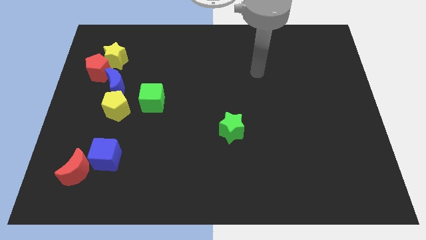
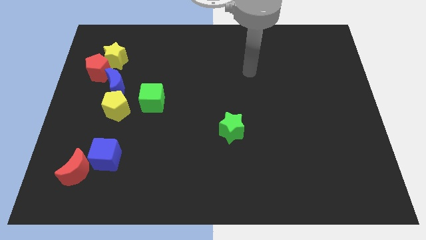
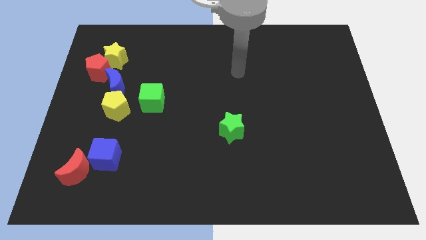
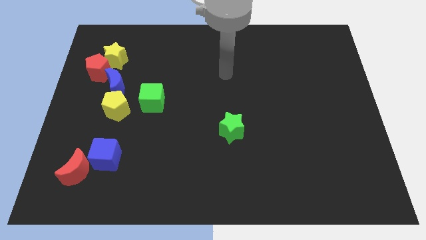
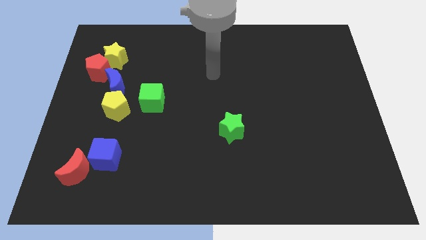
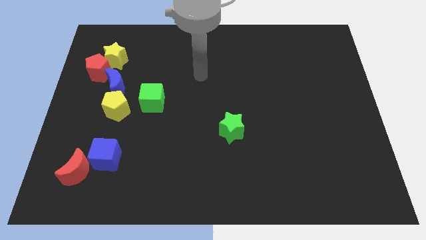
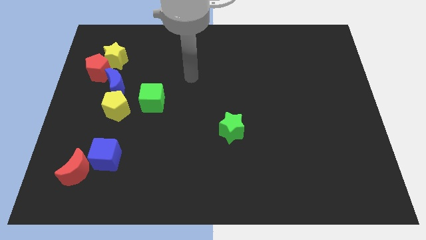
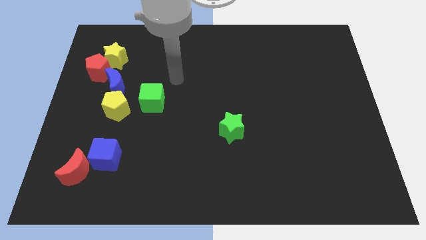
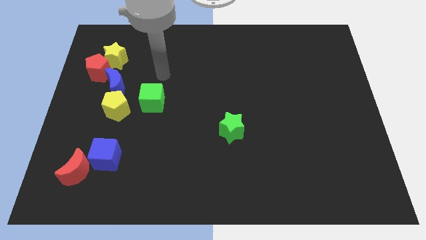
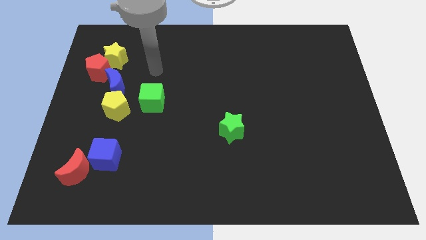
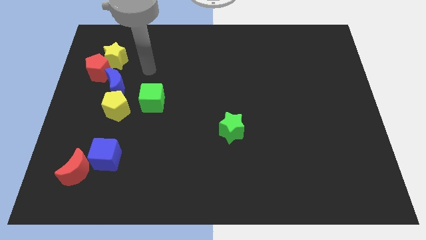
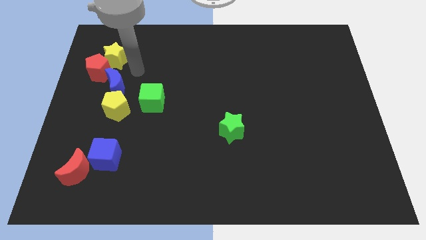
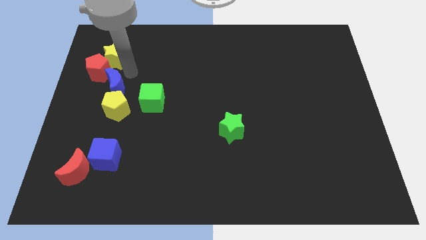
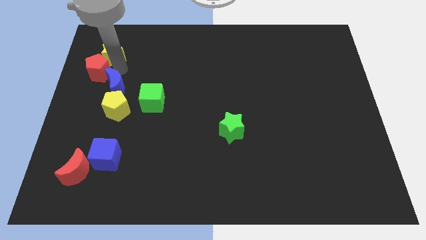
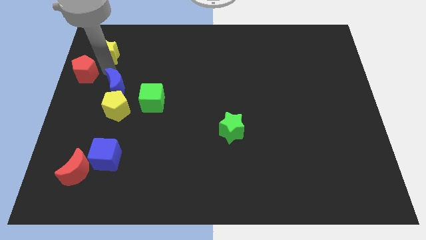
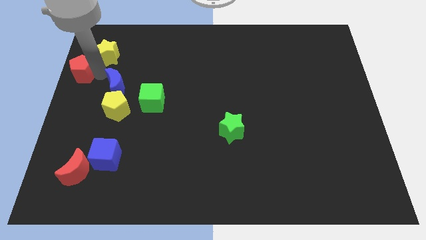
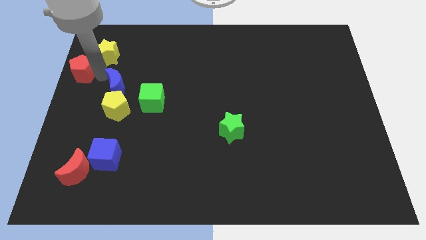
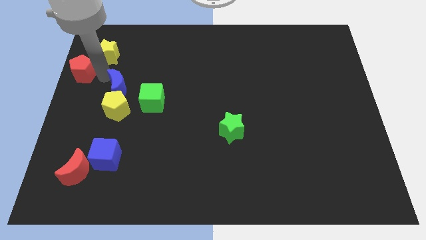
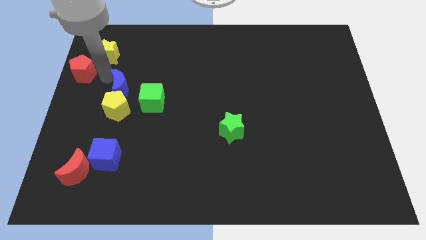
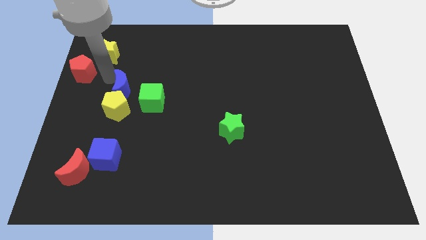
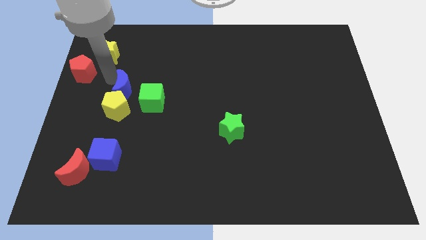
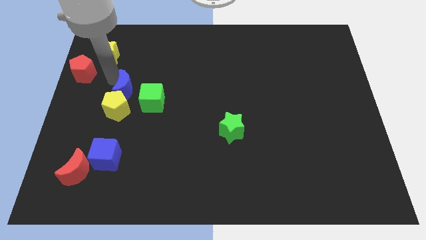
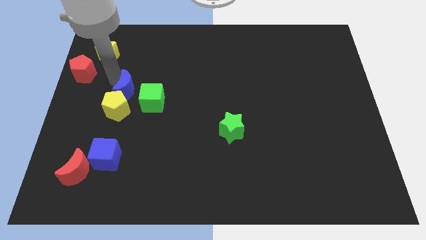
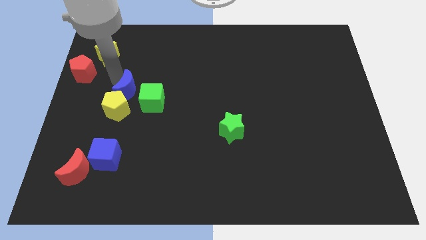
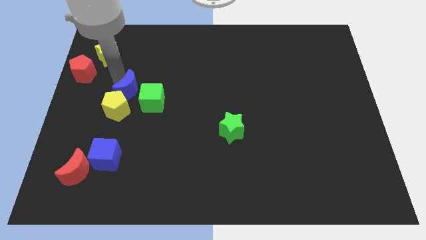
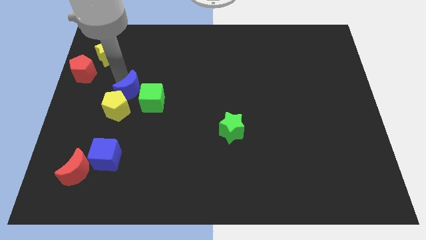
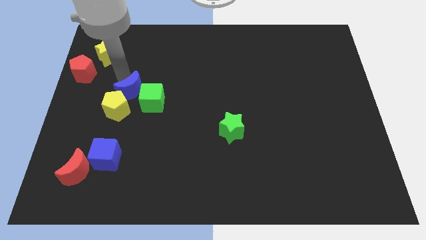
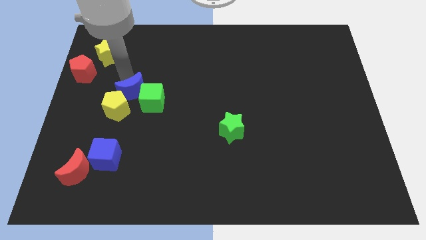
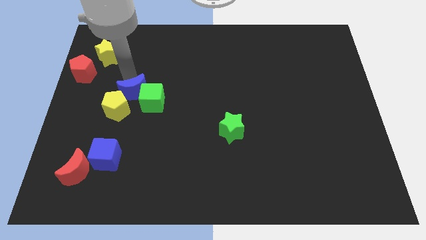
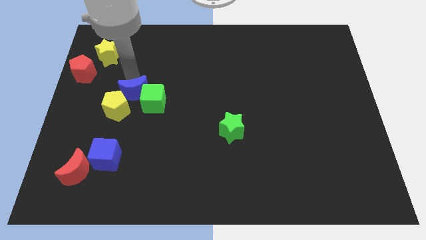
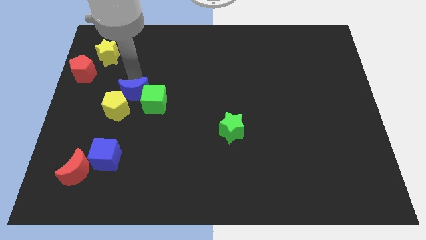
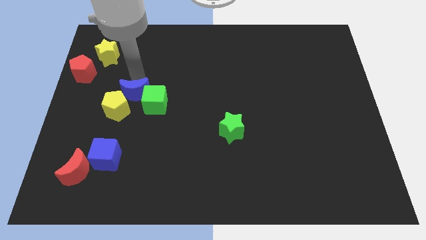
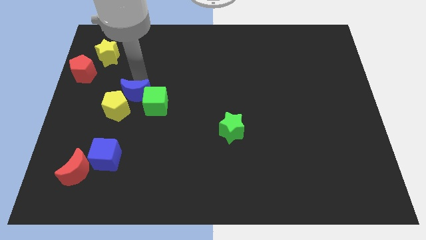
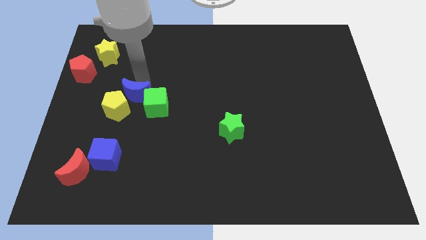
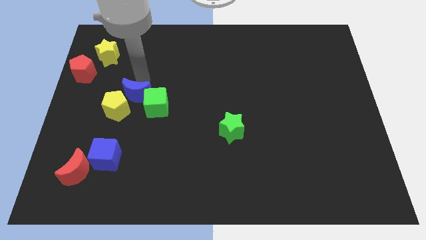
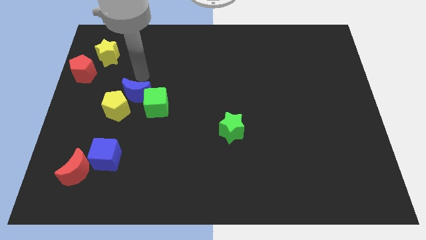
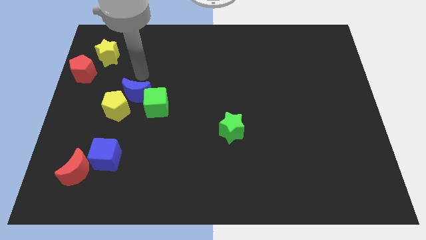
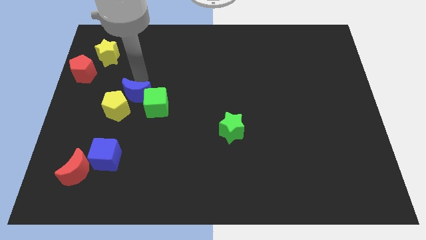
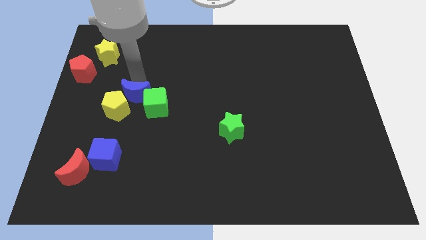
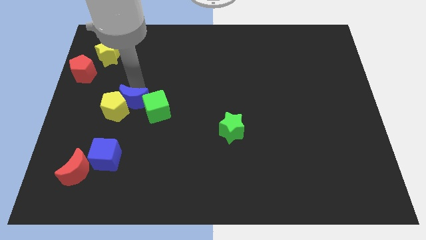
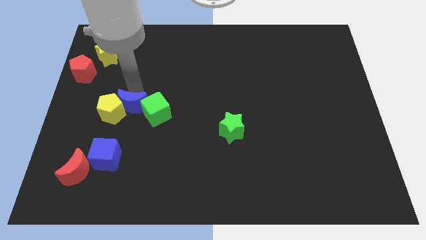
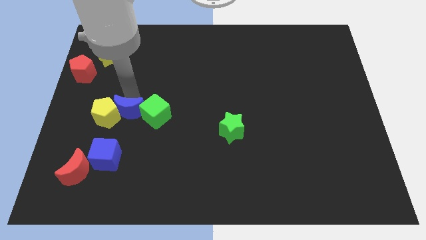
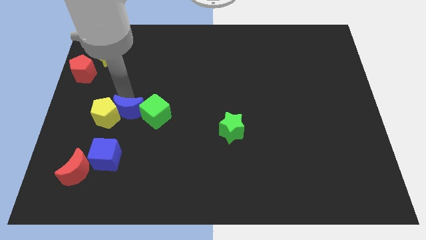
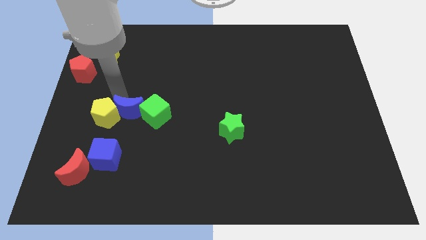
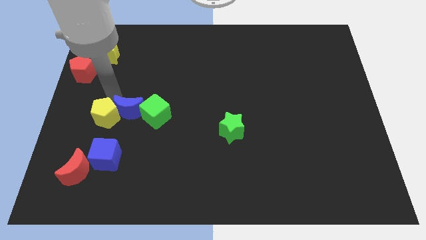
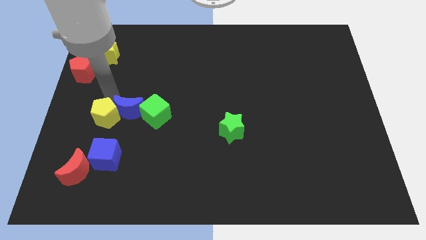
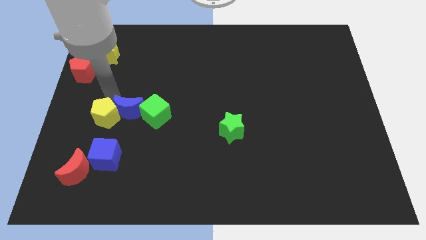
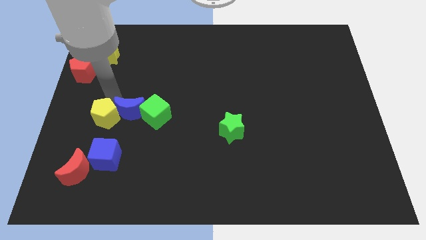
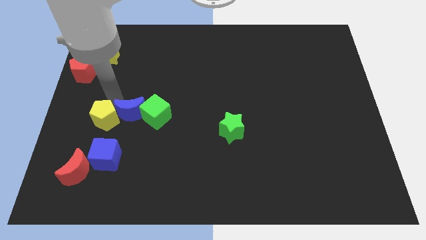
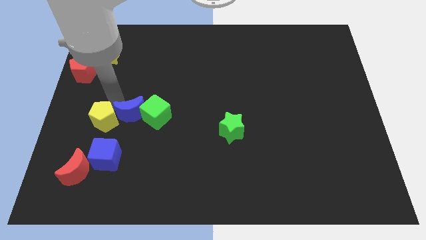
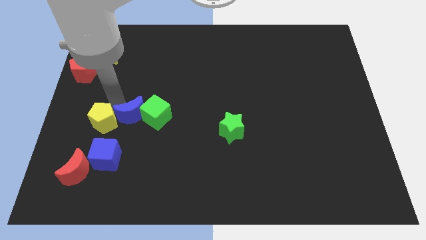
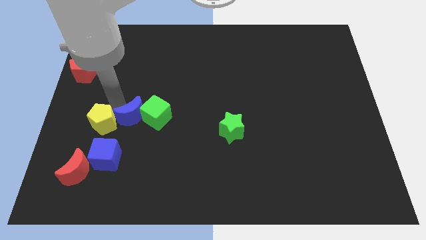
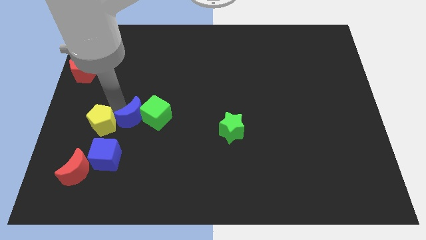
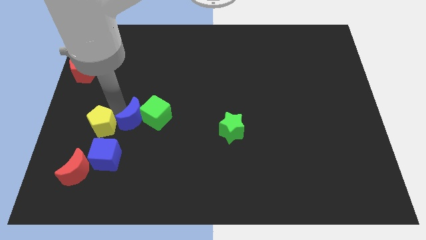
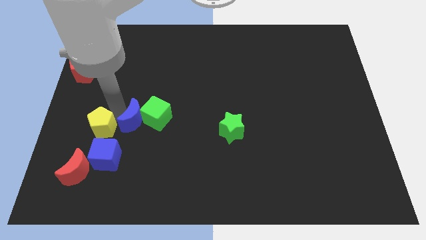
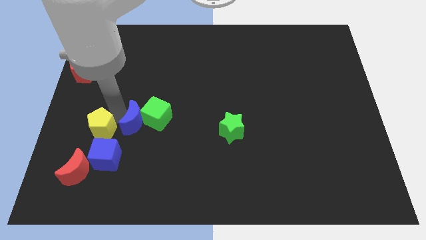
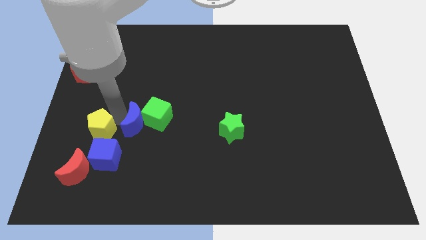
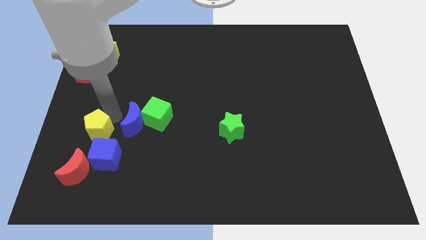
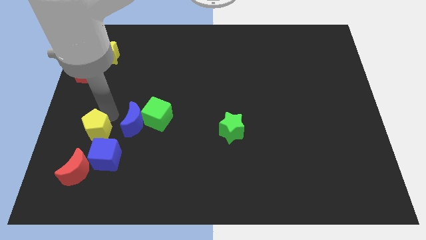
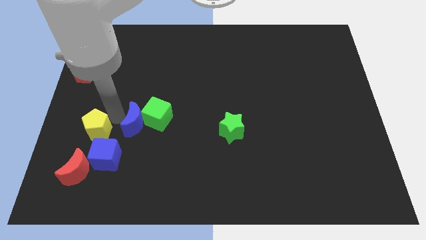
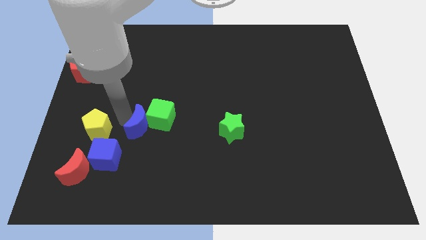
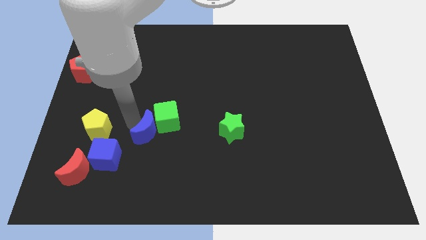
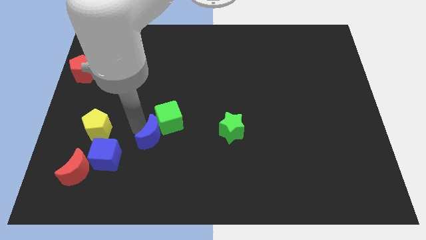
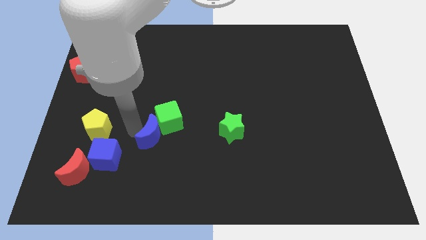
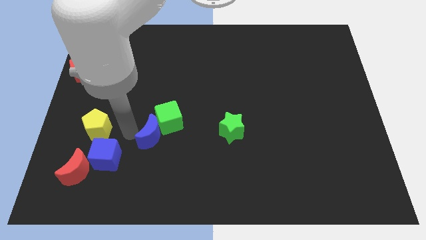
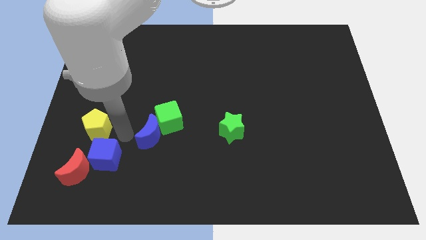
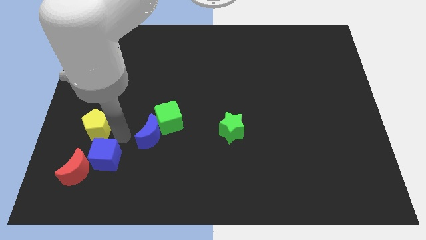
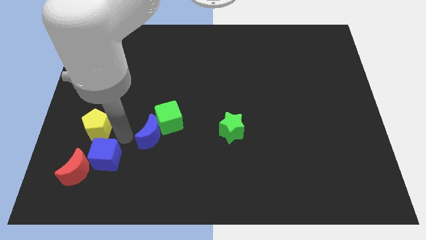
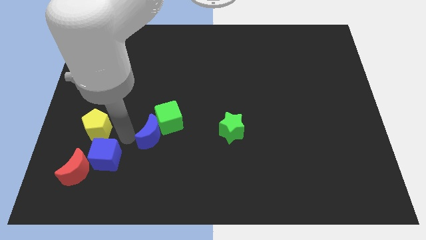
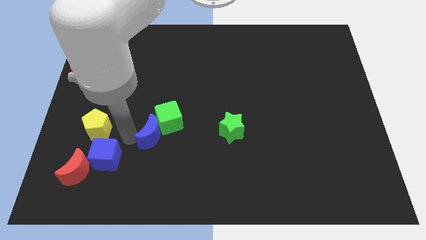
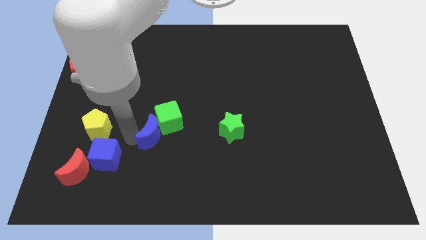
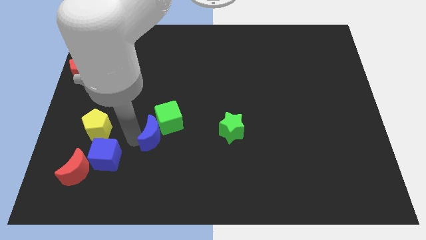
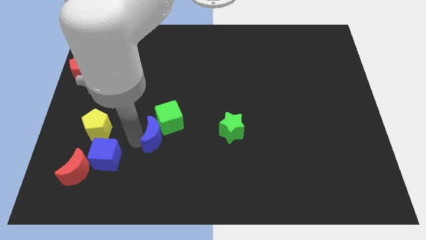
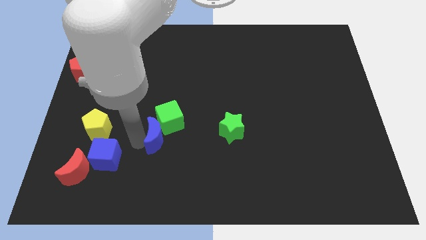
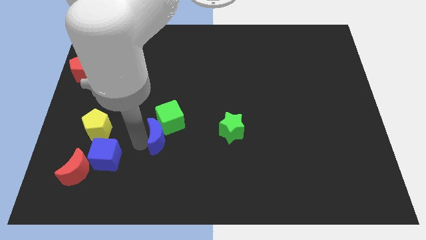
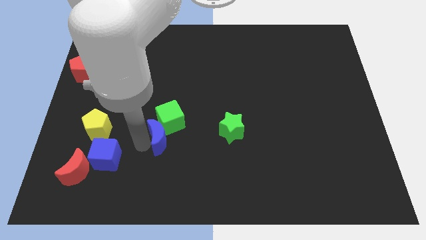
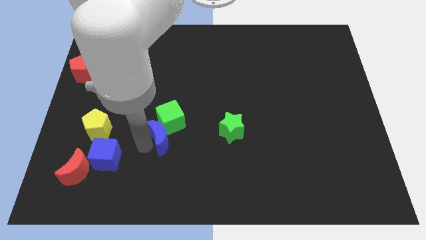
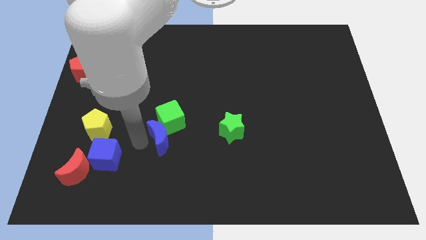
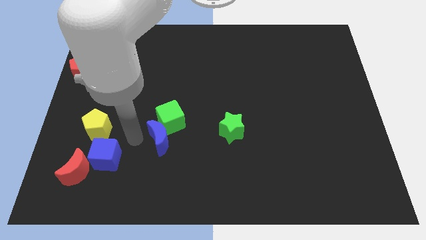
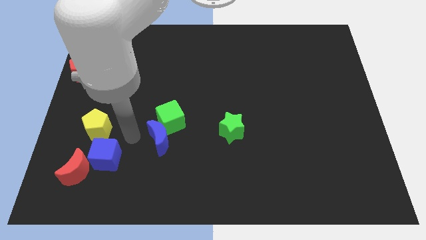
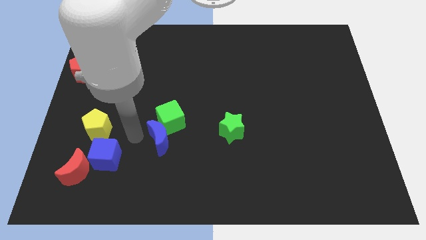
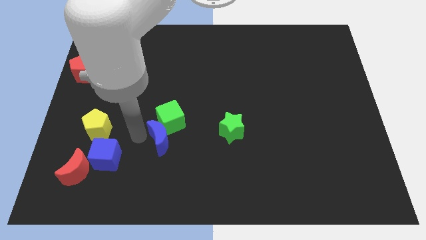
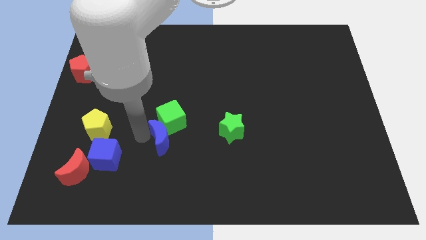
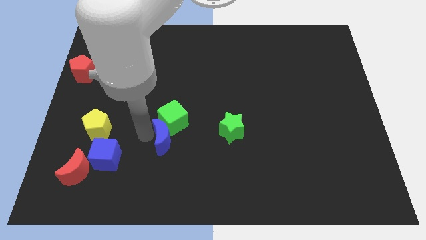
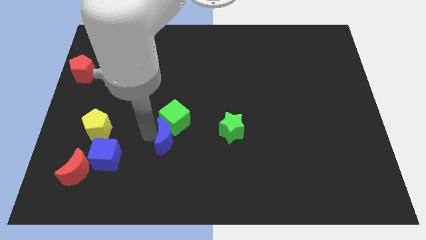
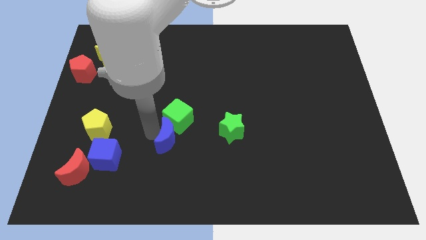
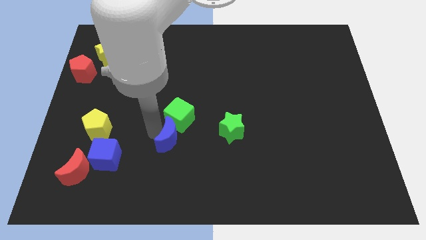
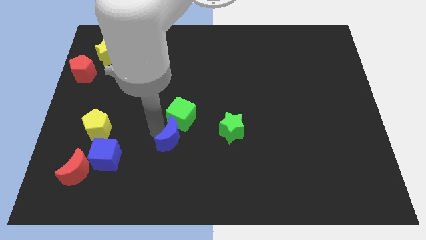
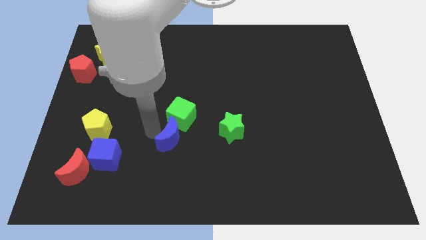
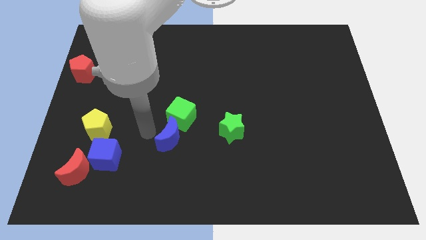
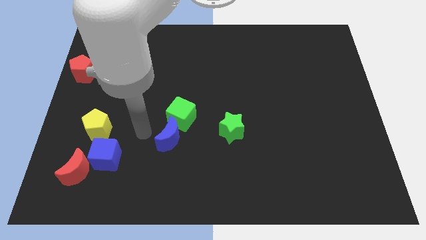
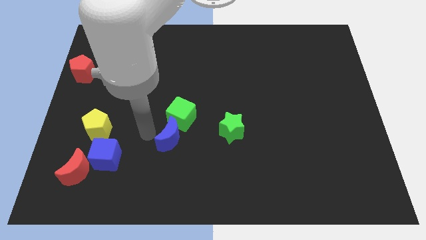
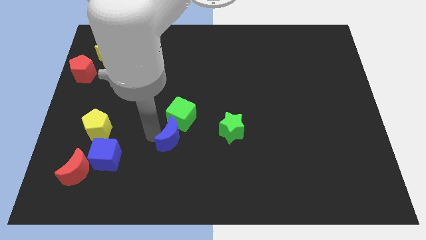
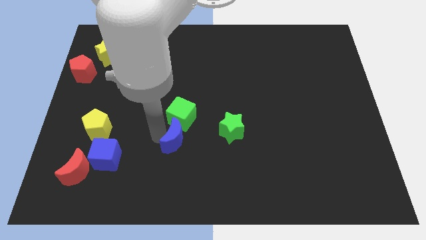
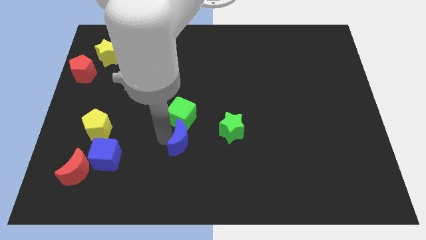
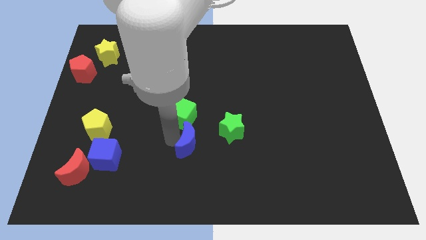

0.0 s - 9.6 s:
push the blue moon to the bottom left of the green star
